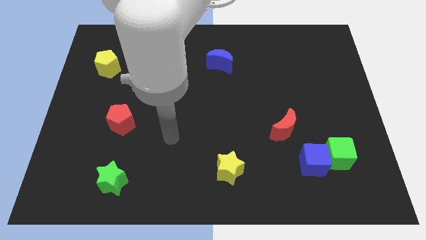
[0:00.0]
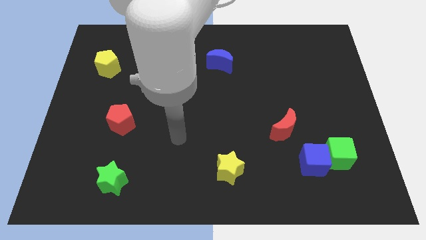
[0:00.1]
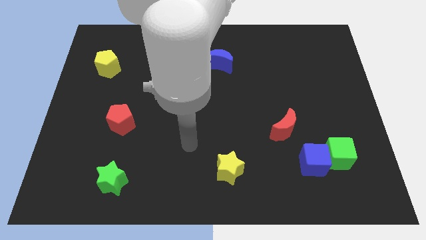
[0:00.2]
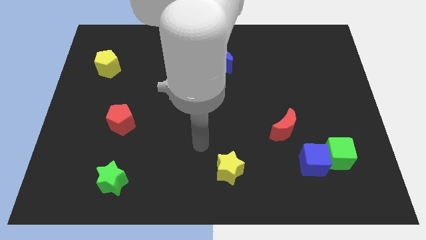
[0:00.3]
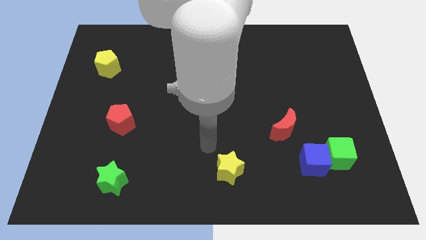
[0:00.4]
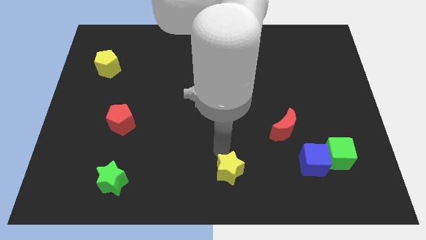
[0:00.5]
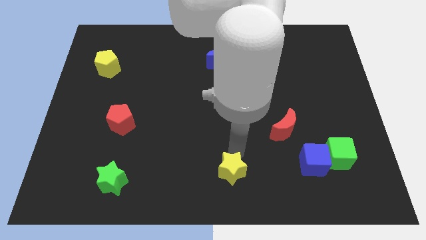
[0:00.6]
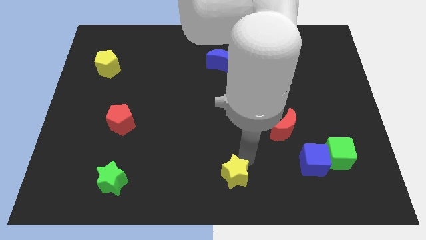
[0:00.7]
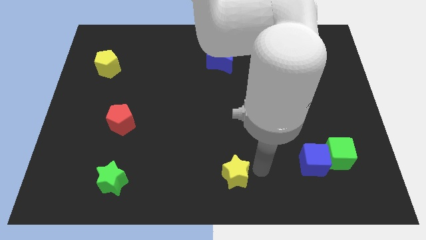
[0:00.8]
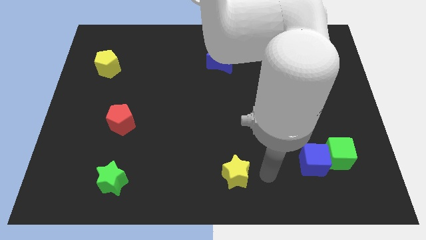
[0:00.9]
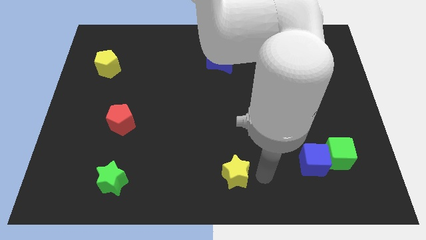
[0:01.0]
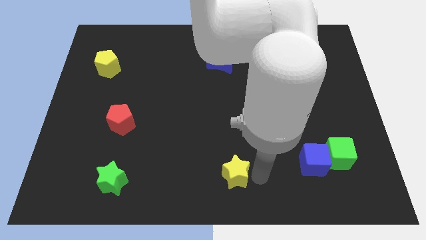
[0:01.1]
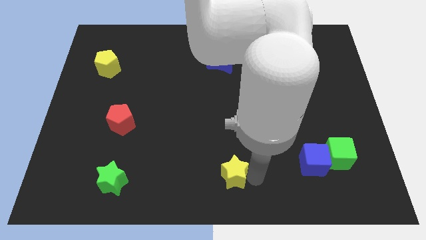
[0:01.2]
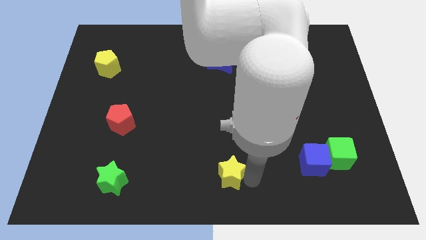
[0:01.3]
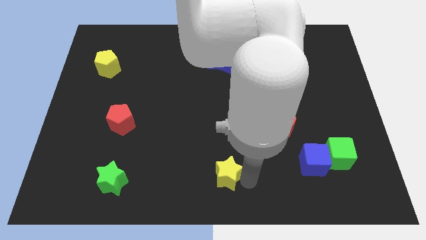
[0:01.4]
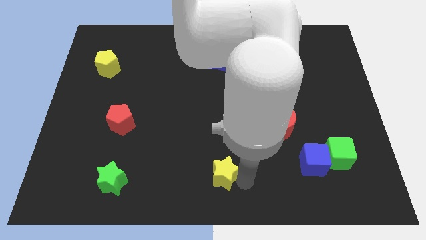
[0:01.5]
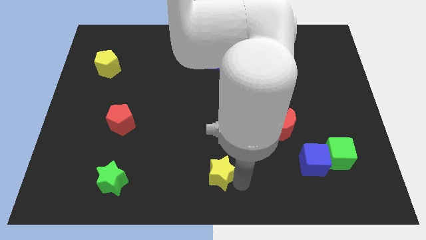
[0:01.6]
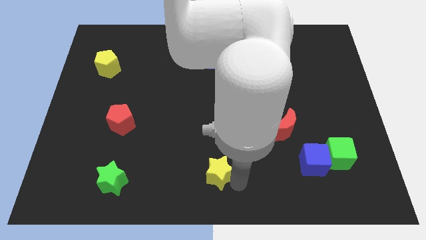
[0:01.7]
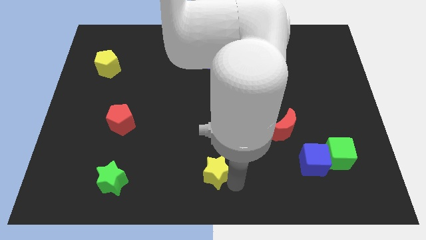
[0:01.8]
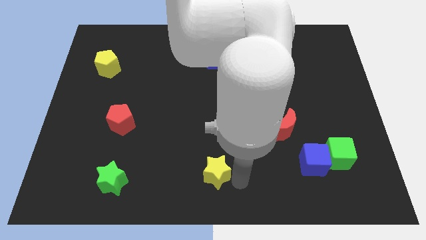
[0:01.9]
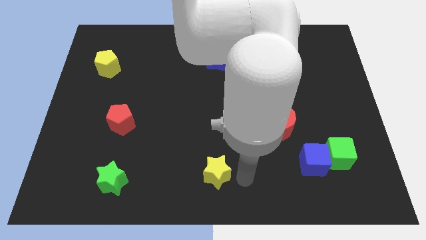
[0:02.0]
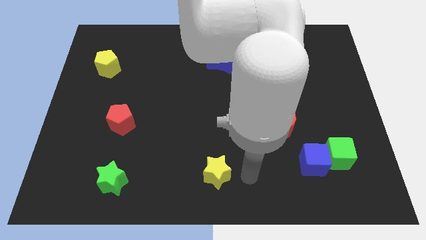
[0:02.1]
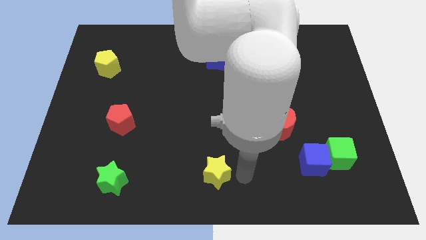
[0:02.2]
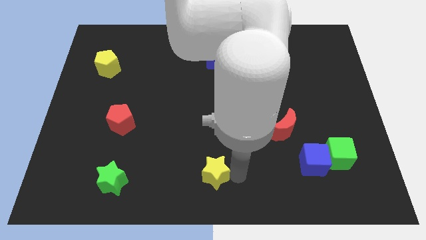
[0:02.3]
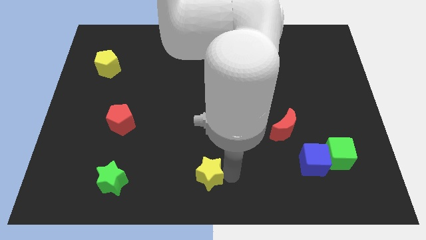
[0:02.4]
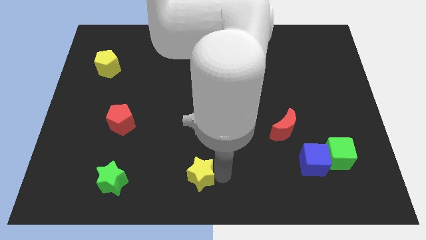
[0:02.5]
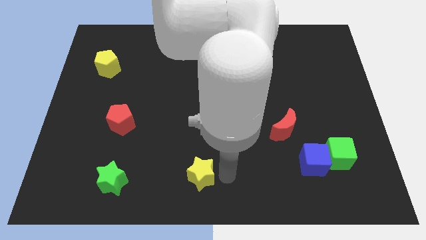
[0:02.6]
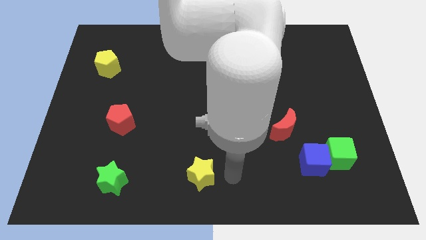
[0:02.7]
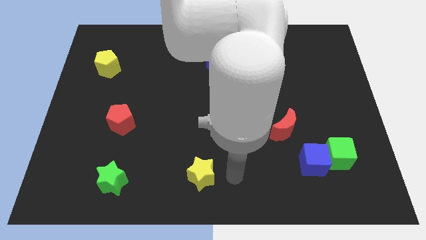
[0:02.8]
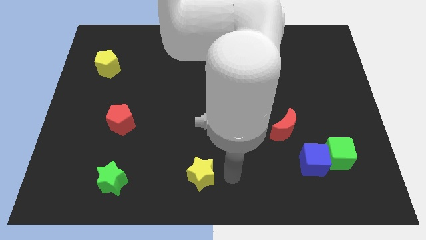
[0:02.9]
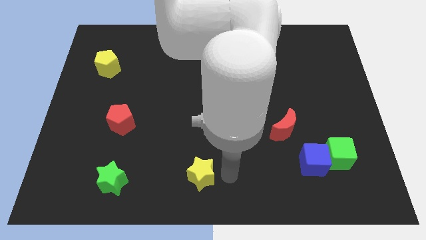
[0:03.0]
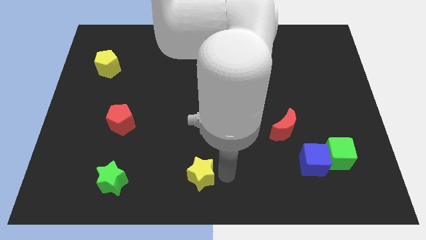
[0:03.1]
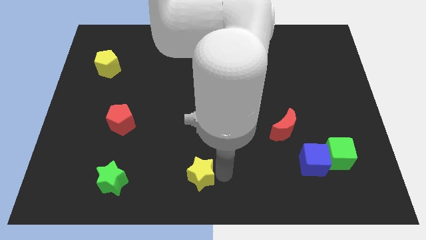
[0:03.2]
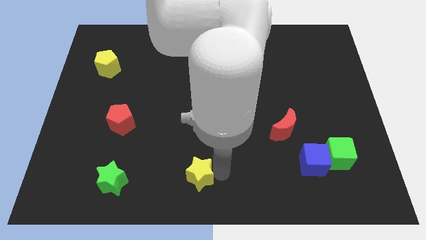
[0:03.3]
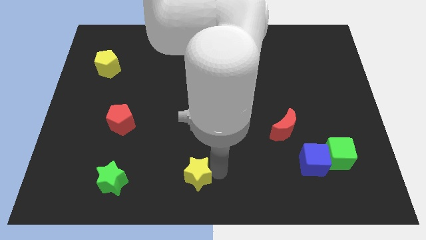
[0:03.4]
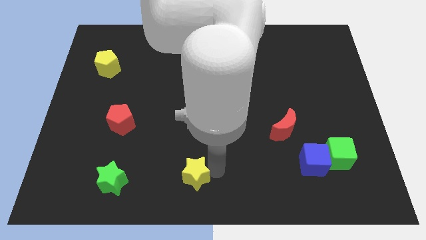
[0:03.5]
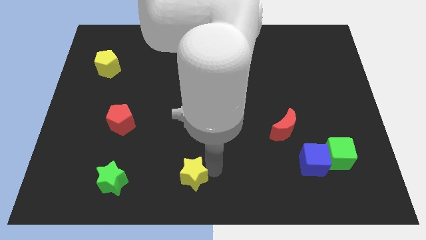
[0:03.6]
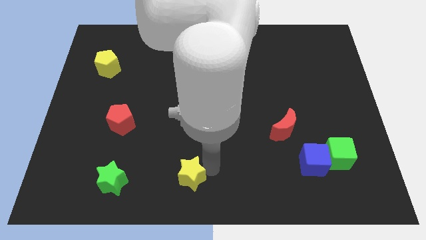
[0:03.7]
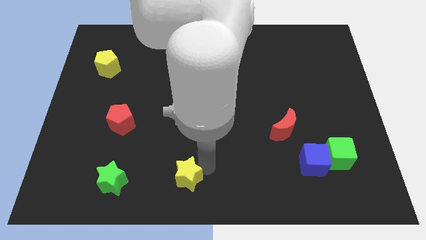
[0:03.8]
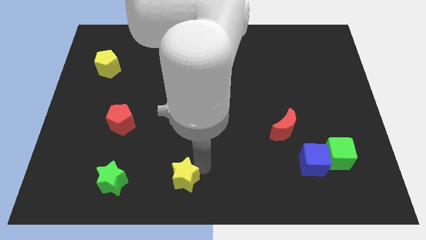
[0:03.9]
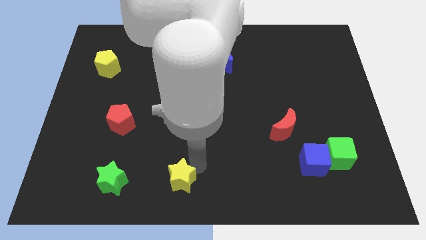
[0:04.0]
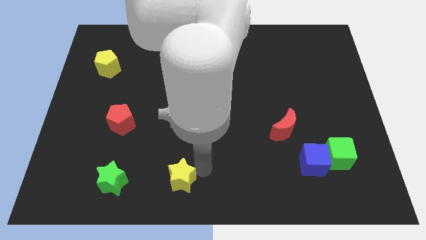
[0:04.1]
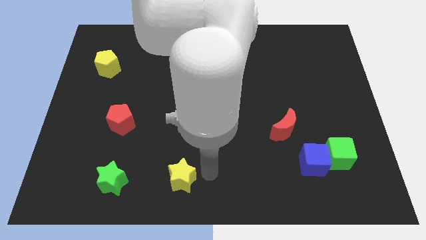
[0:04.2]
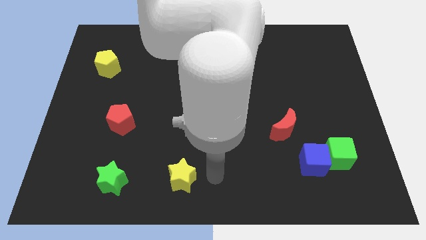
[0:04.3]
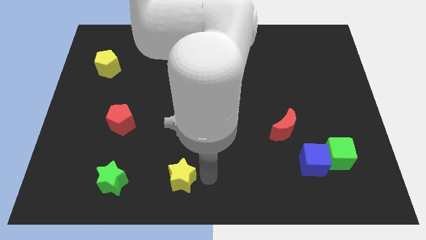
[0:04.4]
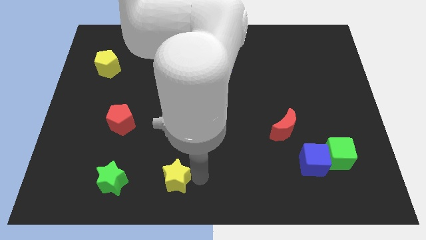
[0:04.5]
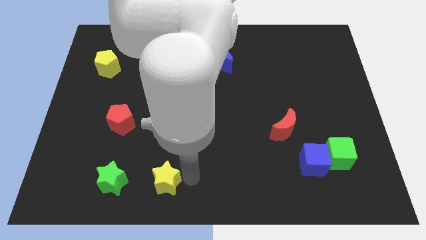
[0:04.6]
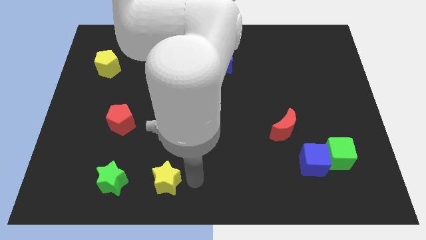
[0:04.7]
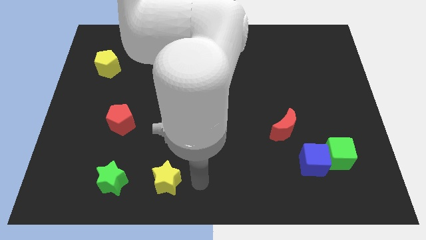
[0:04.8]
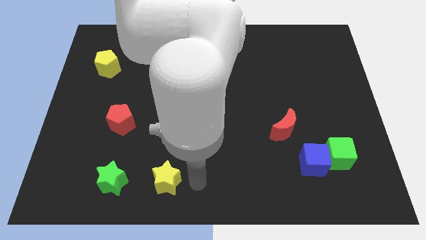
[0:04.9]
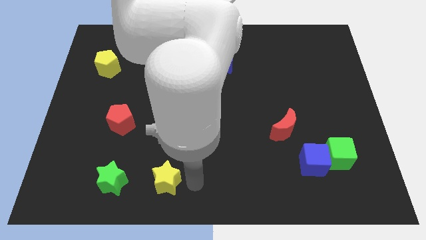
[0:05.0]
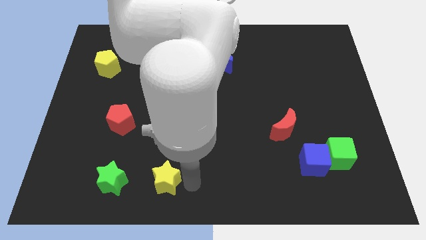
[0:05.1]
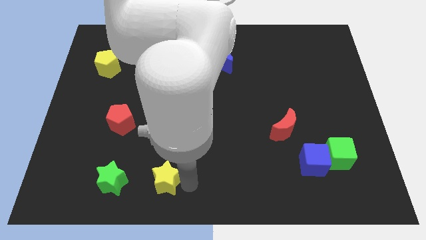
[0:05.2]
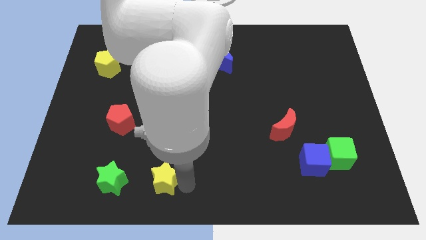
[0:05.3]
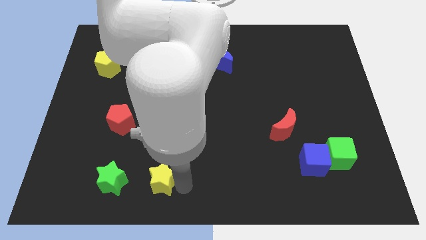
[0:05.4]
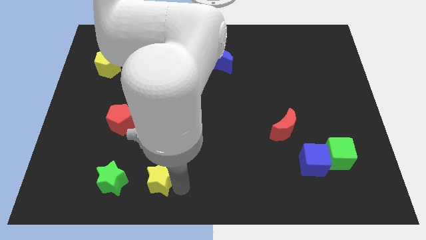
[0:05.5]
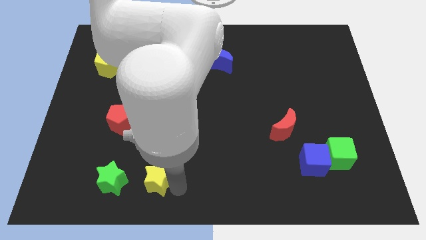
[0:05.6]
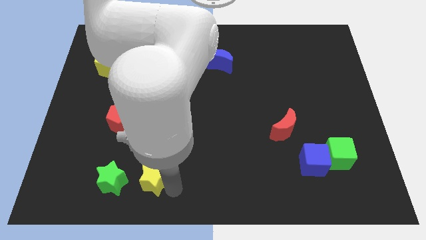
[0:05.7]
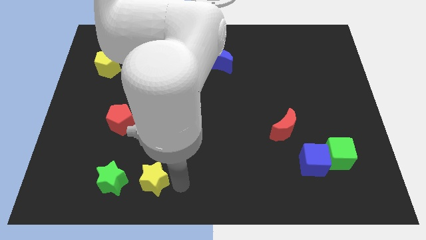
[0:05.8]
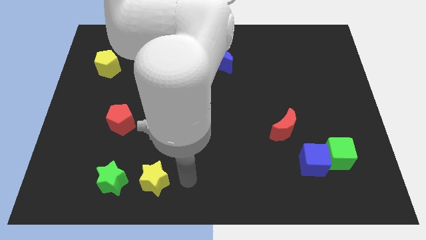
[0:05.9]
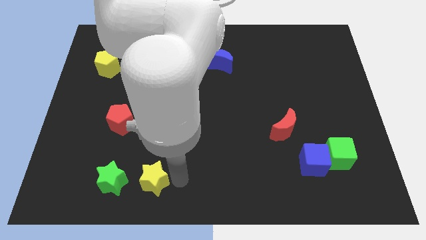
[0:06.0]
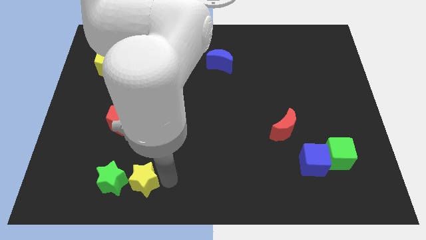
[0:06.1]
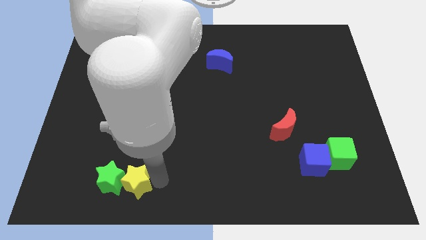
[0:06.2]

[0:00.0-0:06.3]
slide the yellow star towards the green star

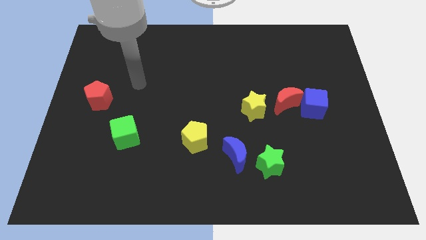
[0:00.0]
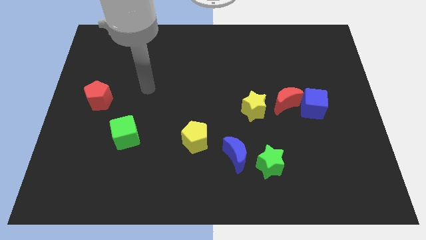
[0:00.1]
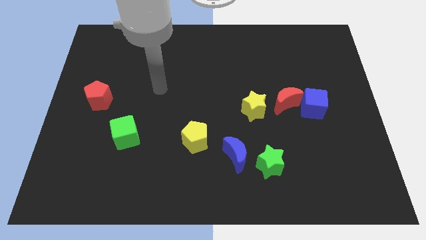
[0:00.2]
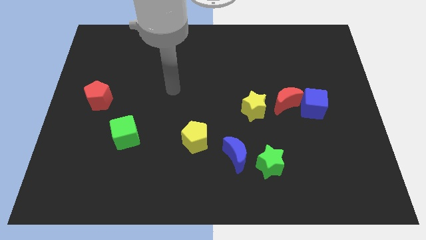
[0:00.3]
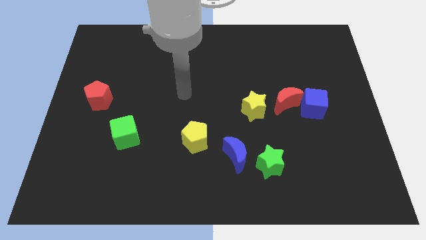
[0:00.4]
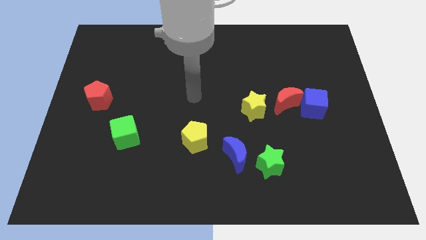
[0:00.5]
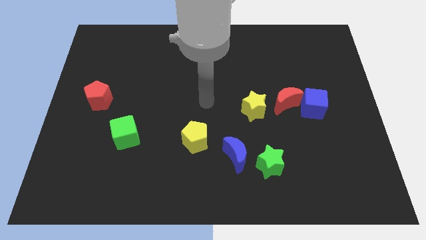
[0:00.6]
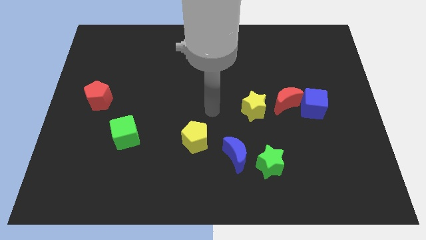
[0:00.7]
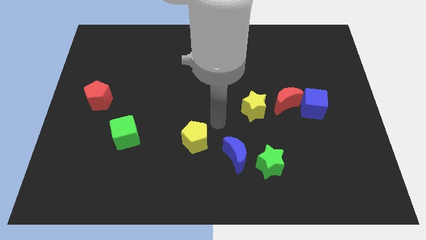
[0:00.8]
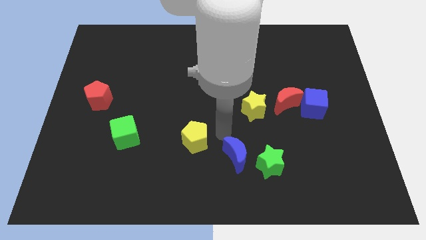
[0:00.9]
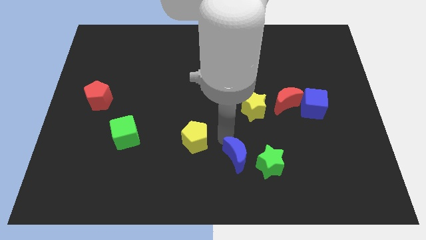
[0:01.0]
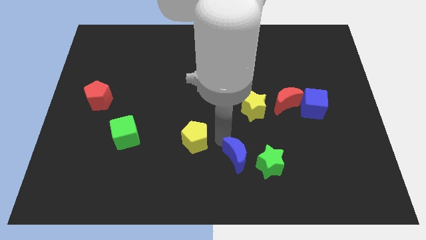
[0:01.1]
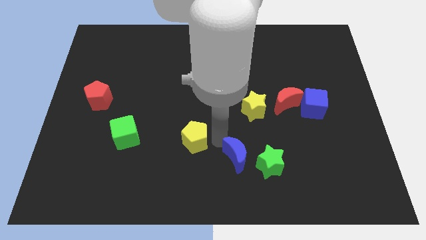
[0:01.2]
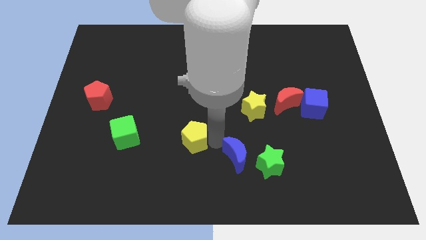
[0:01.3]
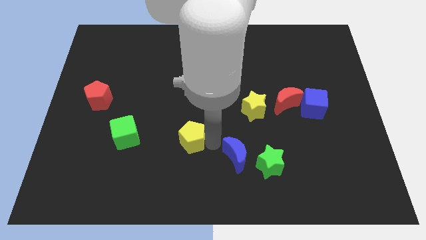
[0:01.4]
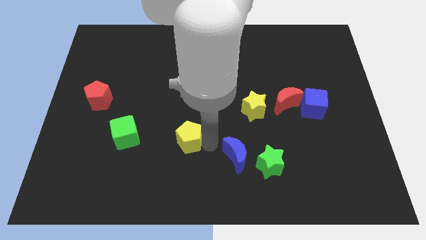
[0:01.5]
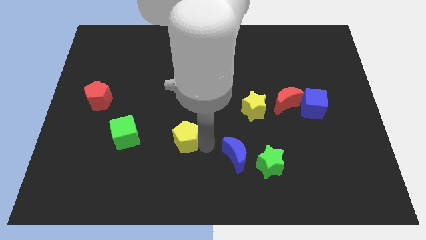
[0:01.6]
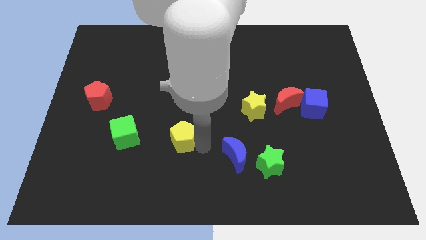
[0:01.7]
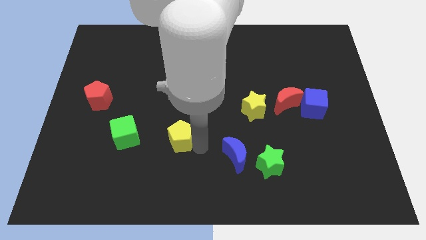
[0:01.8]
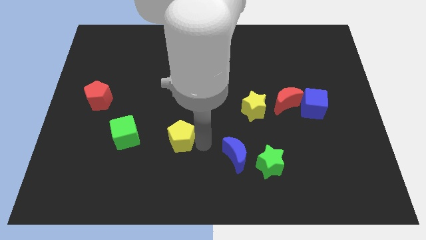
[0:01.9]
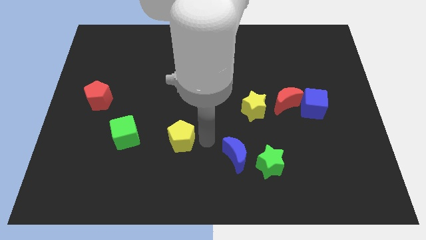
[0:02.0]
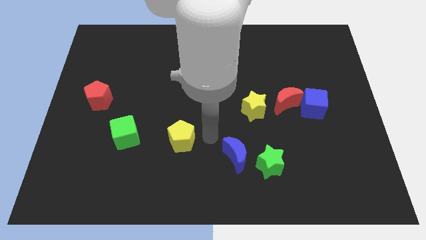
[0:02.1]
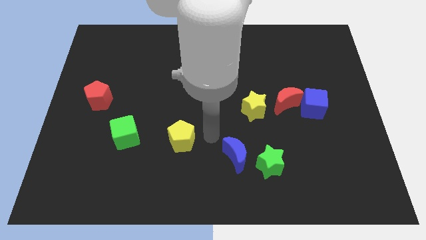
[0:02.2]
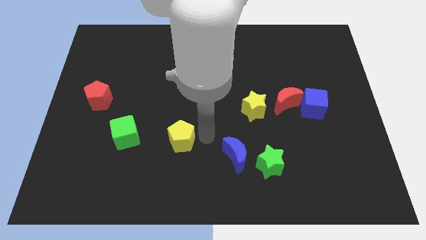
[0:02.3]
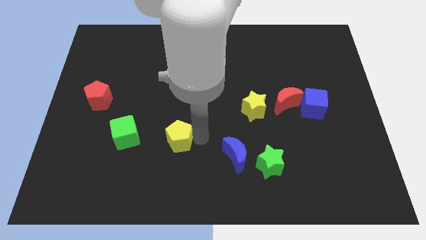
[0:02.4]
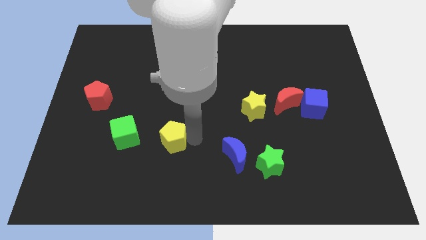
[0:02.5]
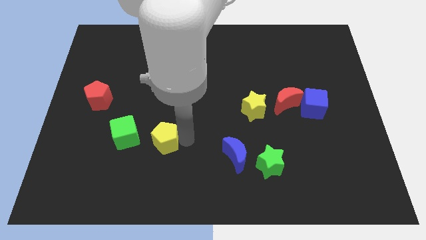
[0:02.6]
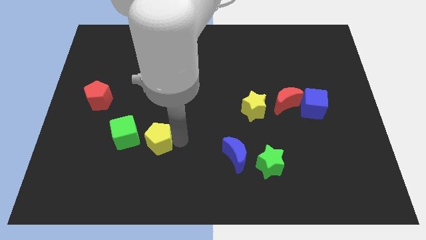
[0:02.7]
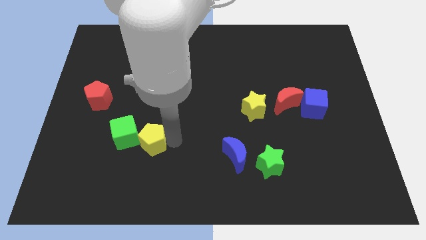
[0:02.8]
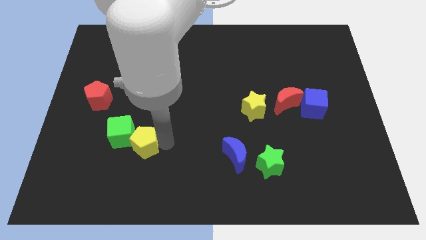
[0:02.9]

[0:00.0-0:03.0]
slide the yellow pentagon next to the green cube
